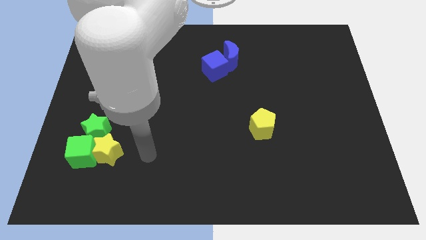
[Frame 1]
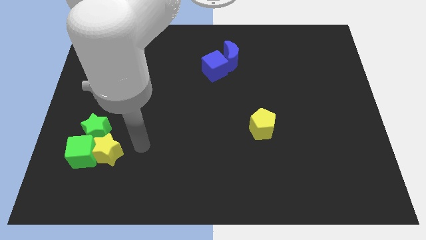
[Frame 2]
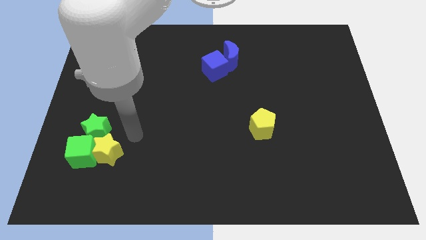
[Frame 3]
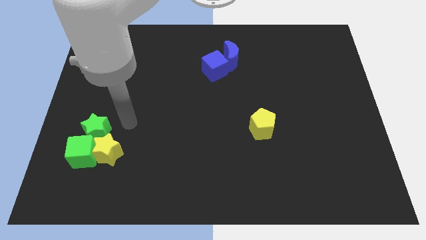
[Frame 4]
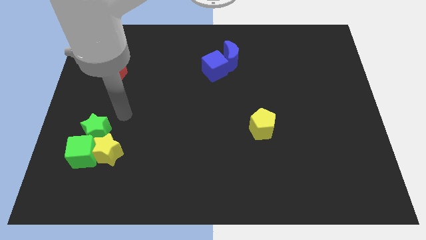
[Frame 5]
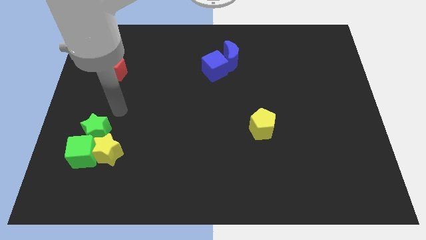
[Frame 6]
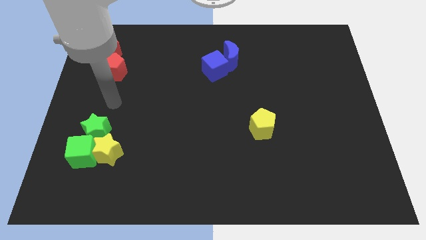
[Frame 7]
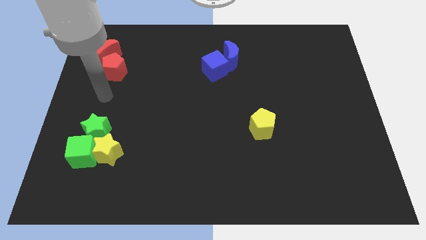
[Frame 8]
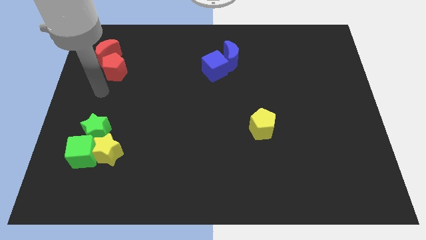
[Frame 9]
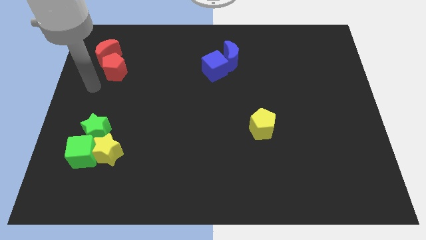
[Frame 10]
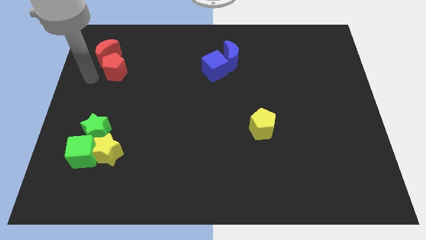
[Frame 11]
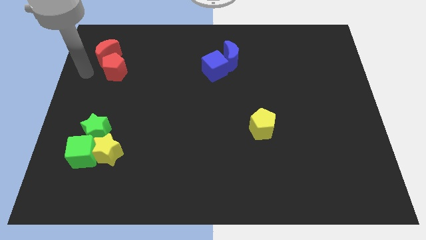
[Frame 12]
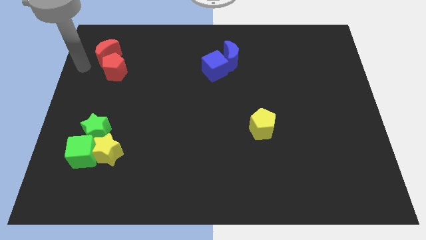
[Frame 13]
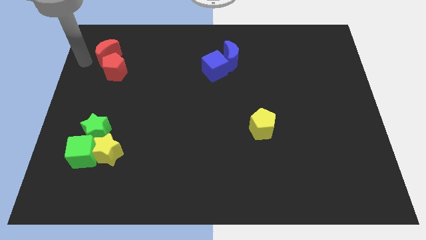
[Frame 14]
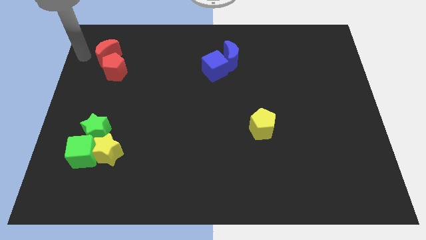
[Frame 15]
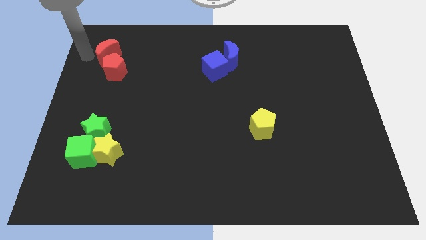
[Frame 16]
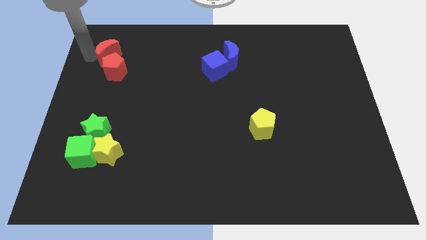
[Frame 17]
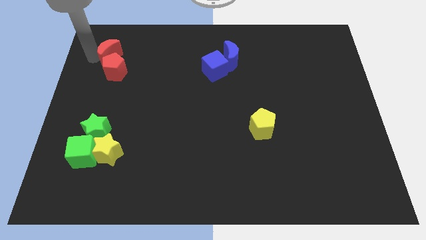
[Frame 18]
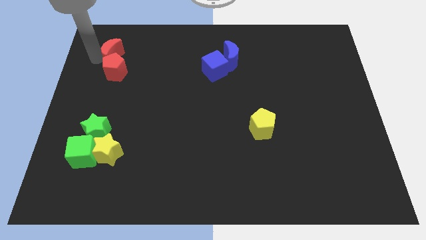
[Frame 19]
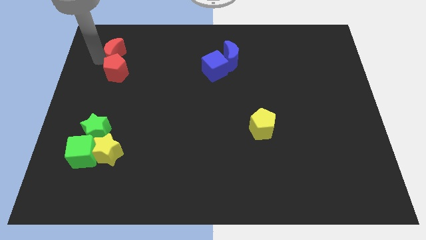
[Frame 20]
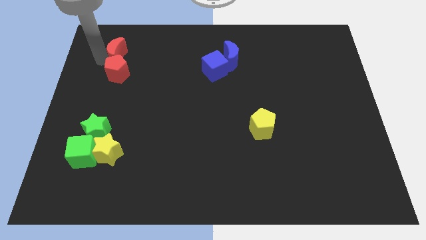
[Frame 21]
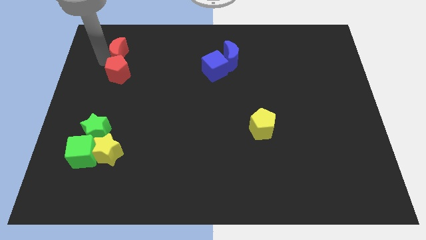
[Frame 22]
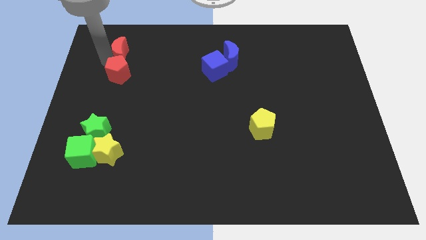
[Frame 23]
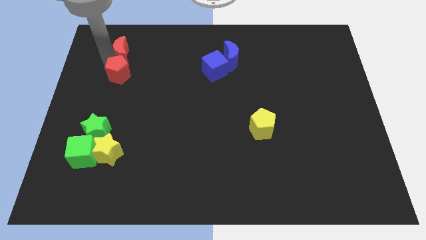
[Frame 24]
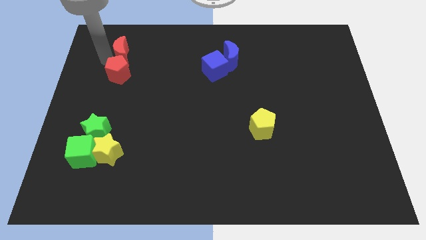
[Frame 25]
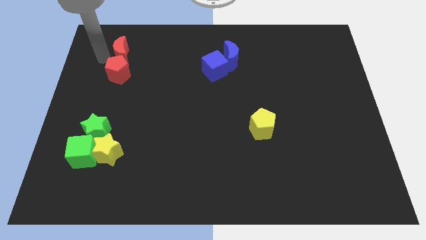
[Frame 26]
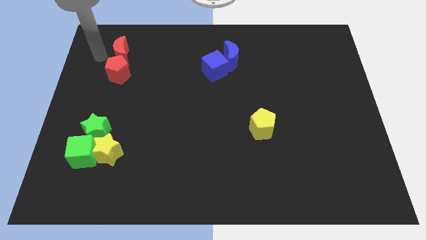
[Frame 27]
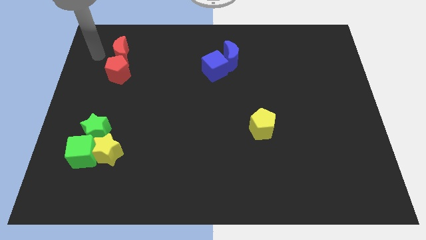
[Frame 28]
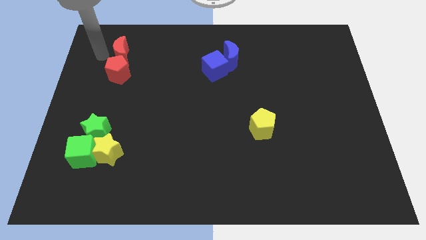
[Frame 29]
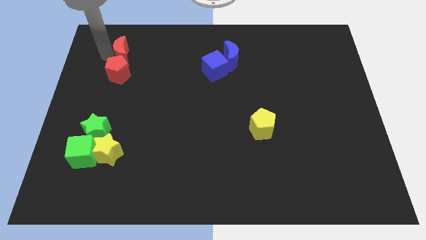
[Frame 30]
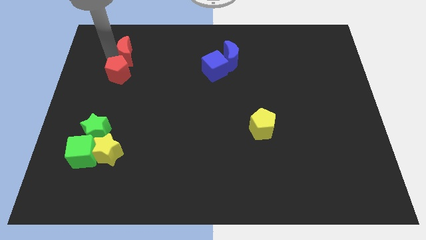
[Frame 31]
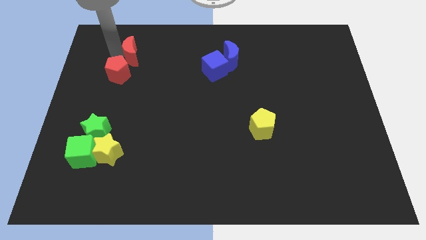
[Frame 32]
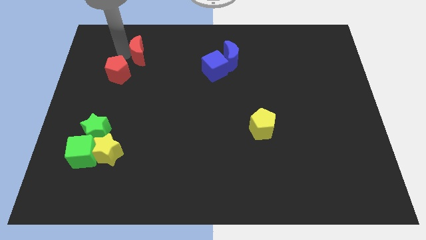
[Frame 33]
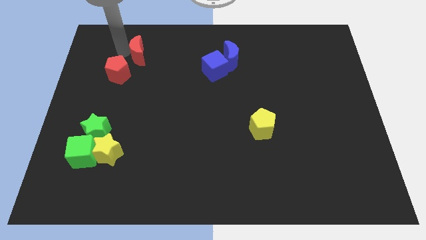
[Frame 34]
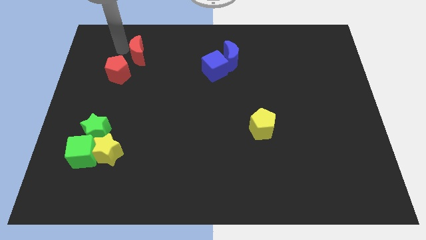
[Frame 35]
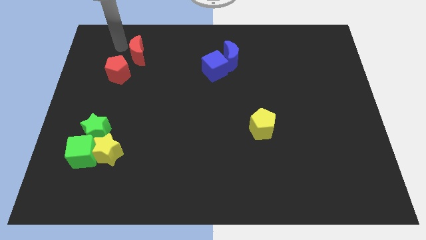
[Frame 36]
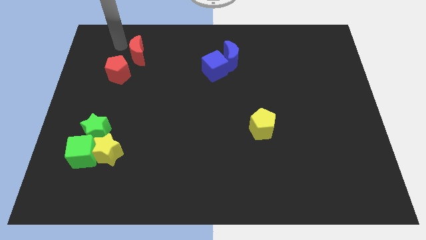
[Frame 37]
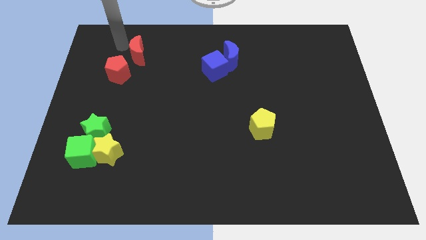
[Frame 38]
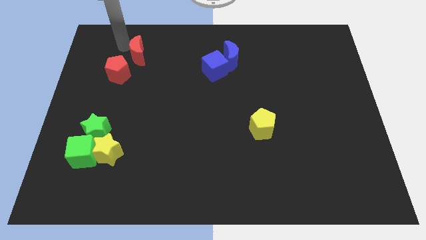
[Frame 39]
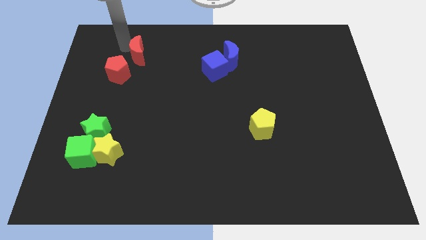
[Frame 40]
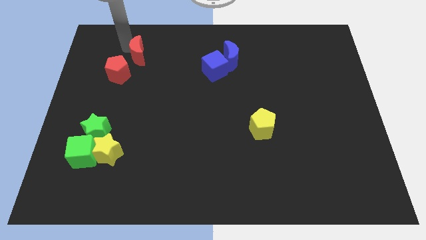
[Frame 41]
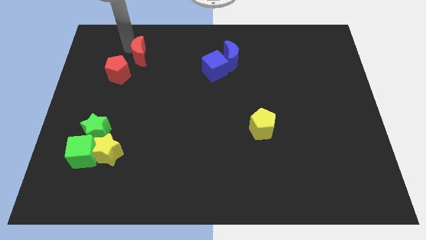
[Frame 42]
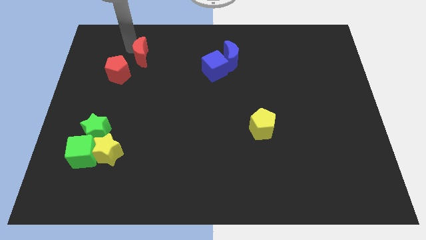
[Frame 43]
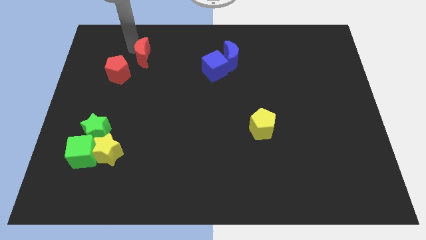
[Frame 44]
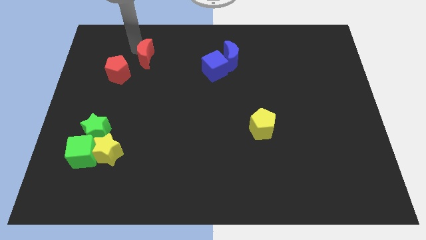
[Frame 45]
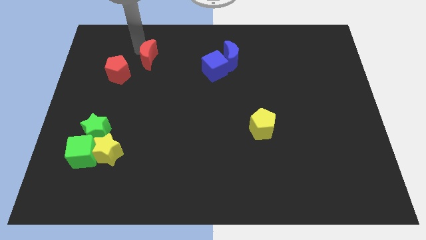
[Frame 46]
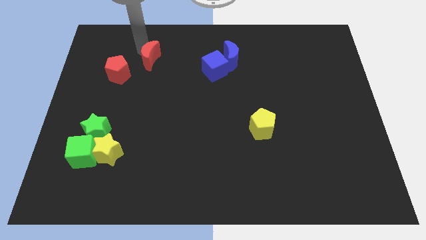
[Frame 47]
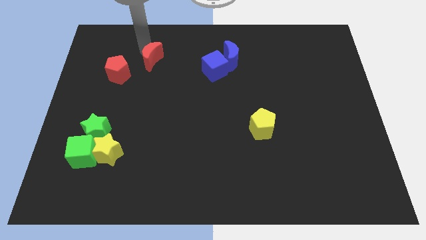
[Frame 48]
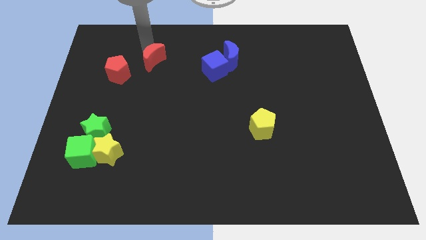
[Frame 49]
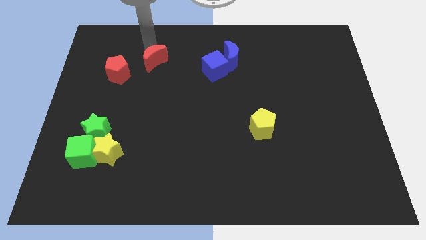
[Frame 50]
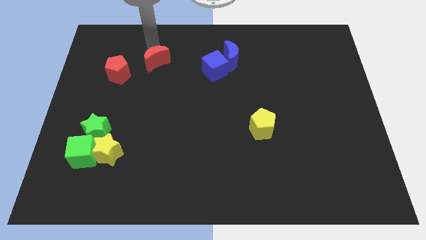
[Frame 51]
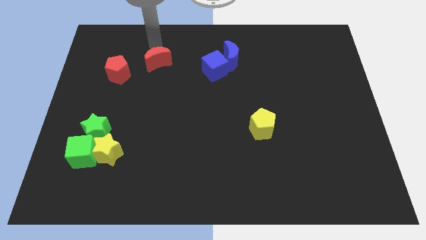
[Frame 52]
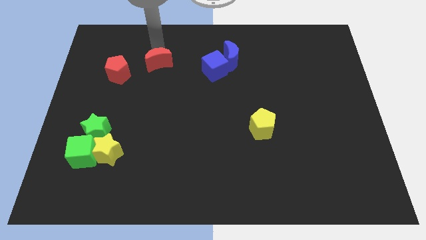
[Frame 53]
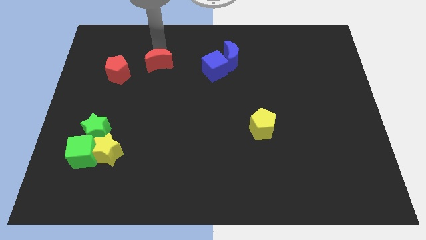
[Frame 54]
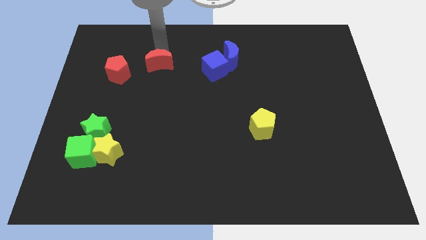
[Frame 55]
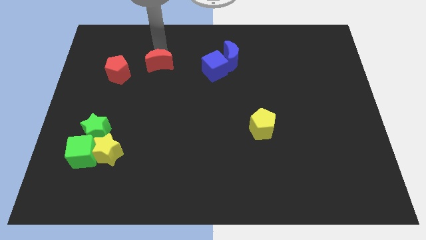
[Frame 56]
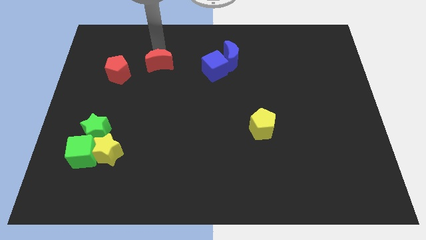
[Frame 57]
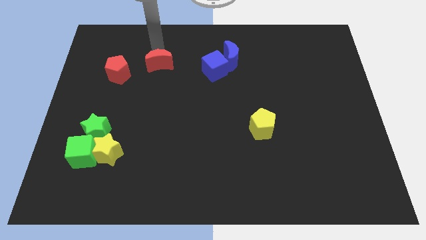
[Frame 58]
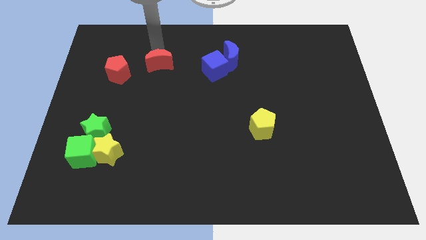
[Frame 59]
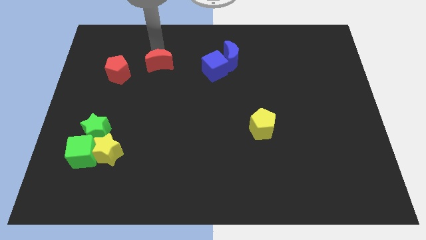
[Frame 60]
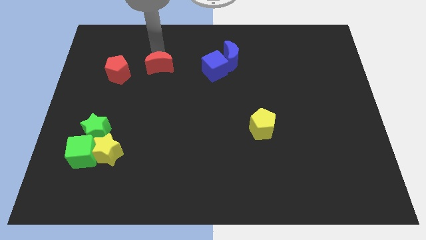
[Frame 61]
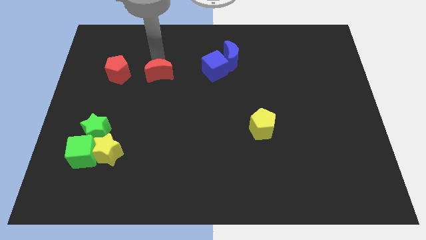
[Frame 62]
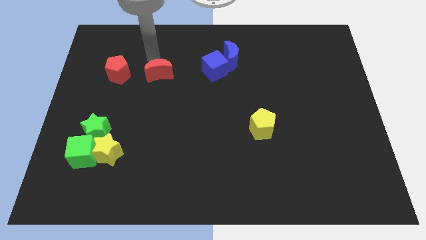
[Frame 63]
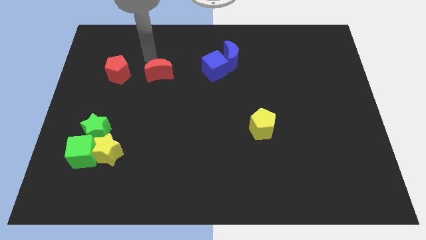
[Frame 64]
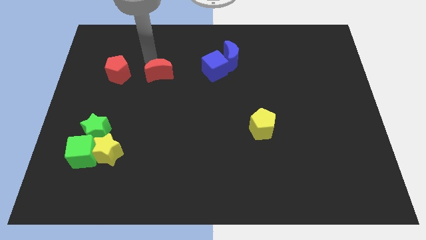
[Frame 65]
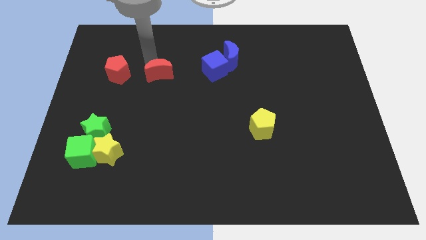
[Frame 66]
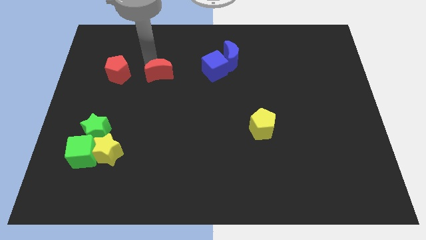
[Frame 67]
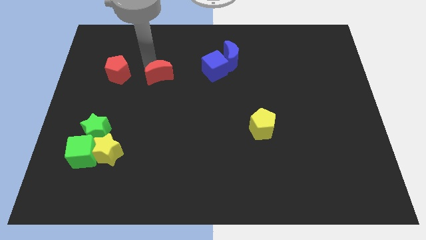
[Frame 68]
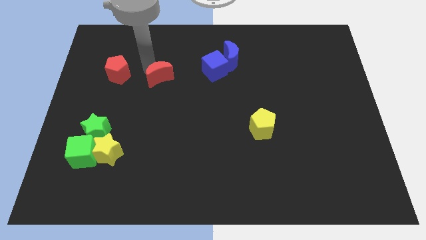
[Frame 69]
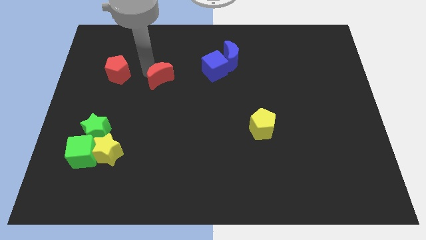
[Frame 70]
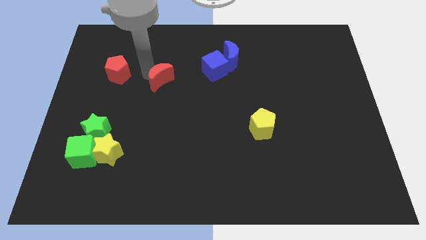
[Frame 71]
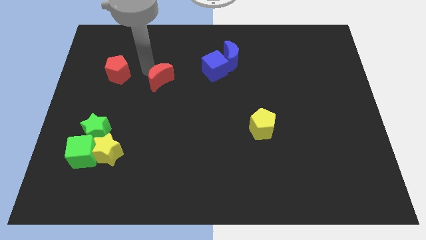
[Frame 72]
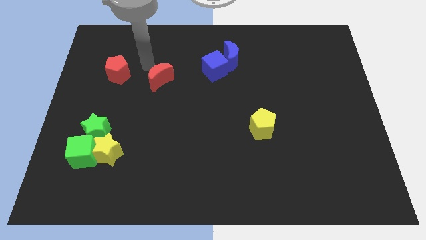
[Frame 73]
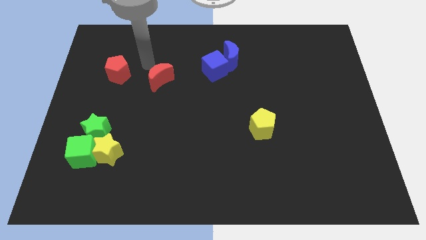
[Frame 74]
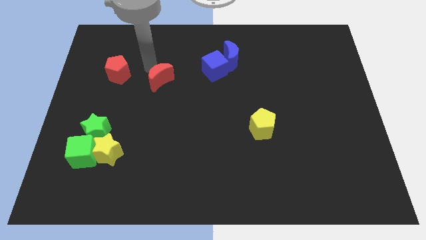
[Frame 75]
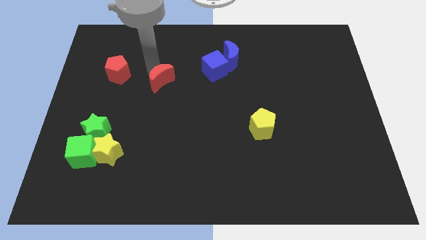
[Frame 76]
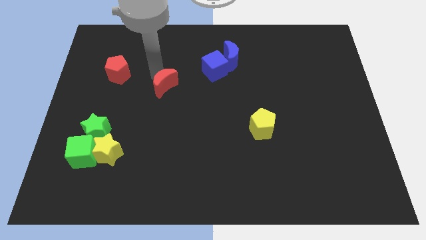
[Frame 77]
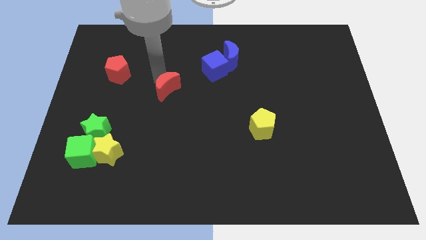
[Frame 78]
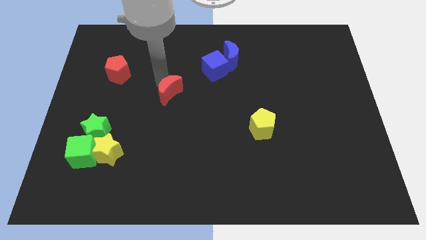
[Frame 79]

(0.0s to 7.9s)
move the red moon downwards and to the right diagonally

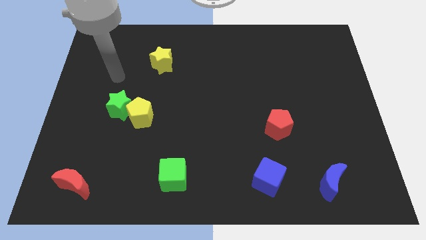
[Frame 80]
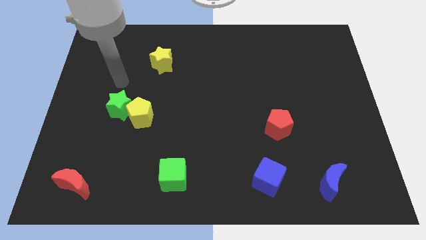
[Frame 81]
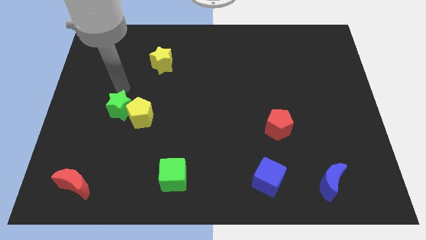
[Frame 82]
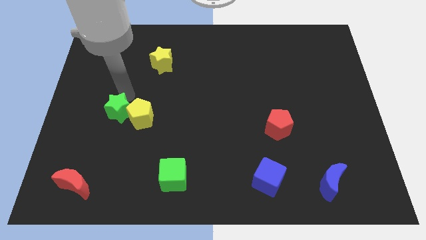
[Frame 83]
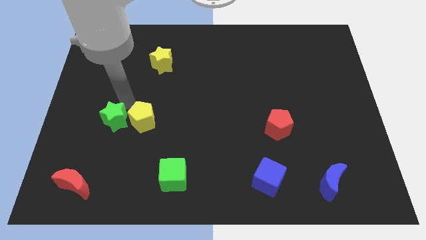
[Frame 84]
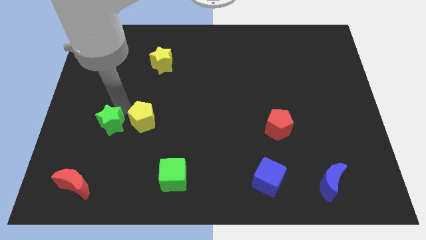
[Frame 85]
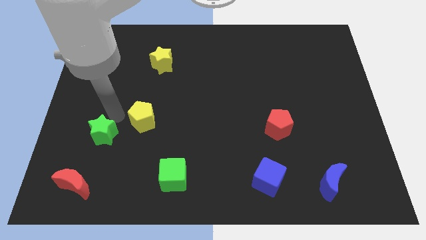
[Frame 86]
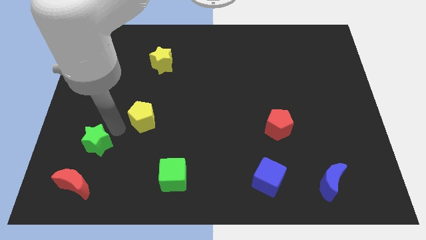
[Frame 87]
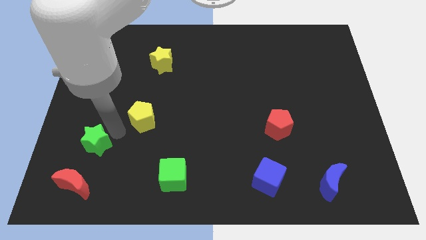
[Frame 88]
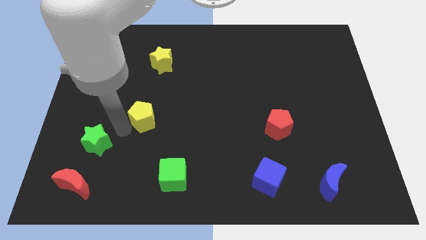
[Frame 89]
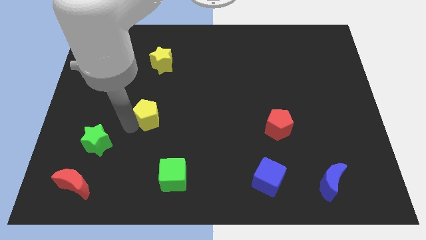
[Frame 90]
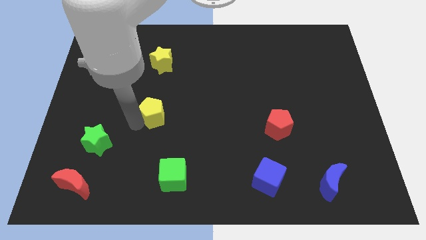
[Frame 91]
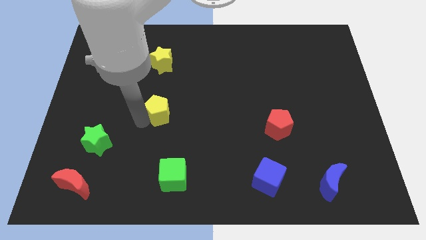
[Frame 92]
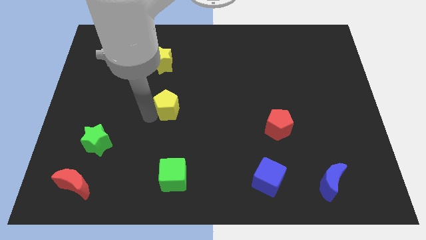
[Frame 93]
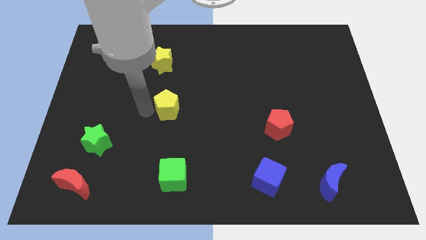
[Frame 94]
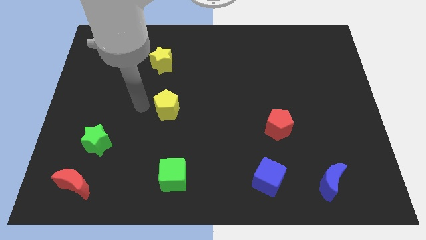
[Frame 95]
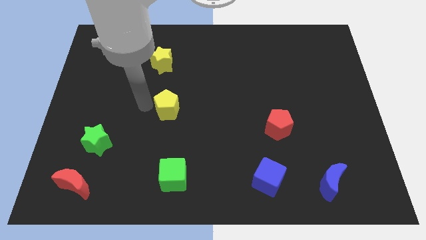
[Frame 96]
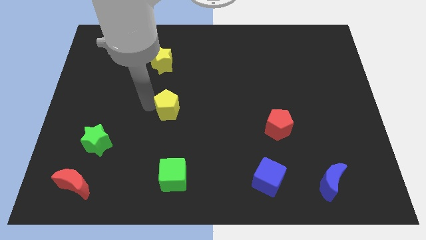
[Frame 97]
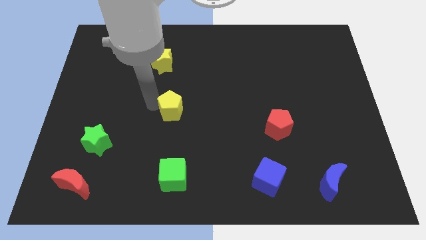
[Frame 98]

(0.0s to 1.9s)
slightly push the yellow pentagon to the right
